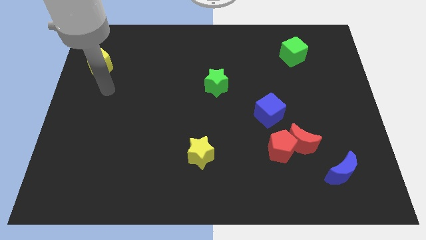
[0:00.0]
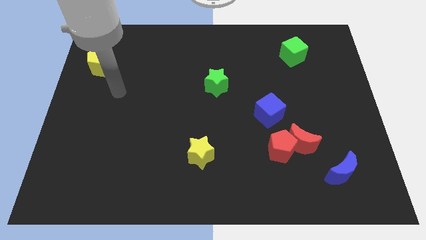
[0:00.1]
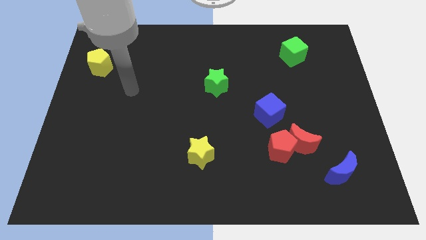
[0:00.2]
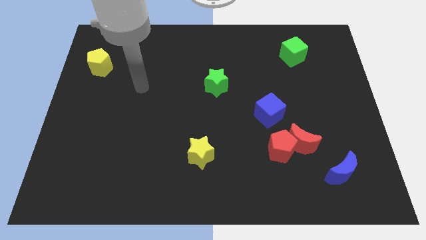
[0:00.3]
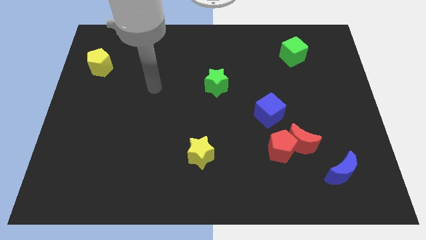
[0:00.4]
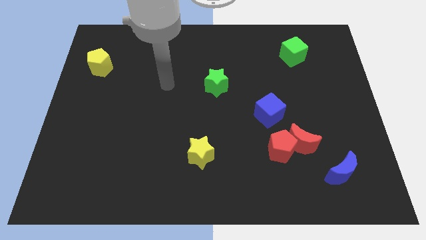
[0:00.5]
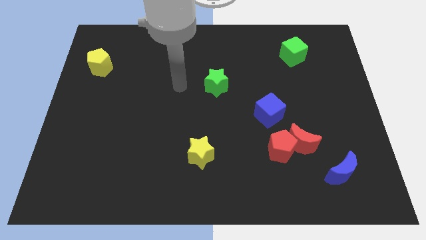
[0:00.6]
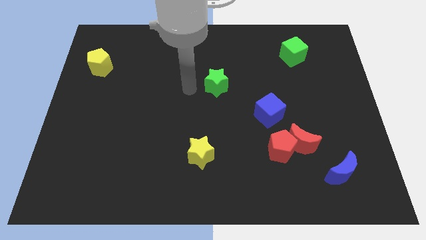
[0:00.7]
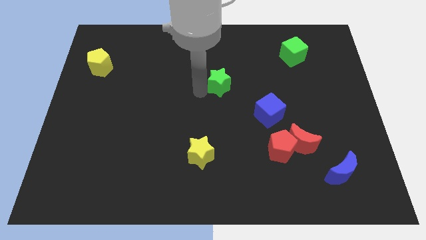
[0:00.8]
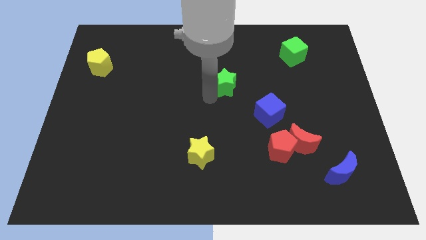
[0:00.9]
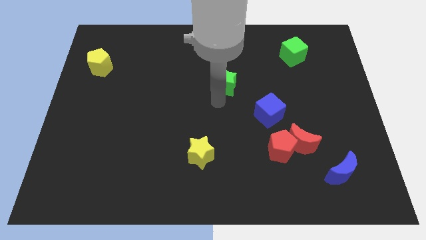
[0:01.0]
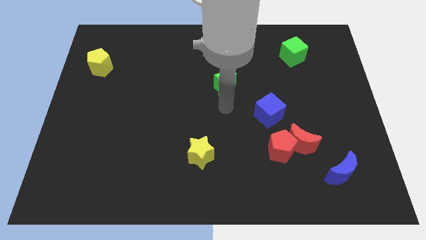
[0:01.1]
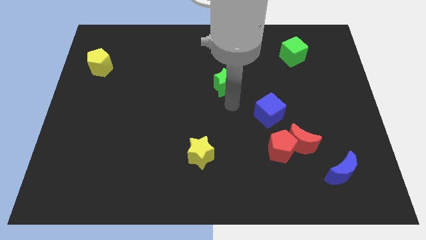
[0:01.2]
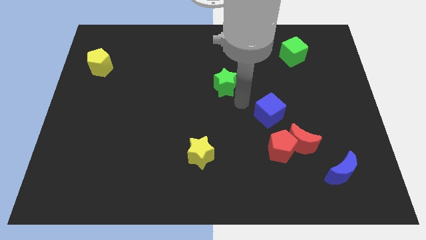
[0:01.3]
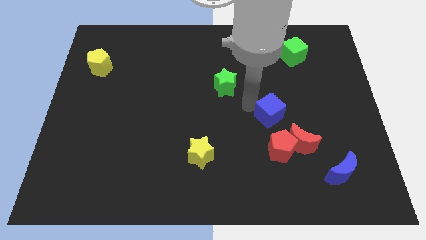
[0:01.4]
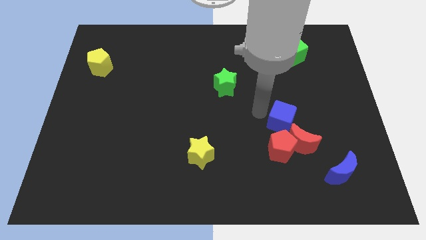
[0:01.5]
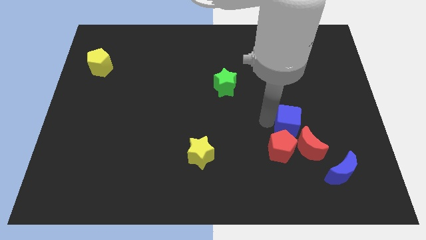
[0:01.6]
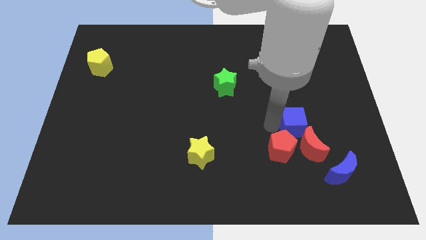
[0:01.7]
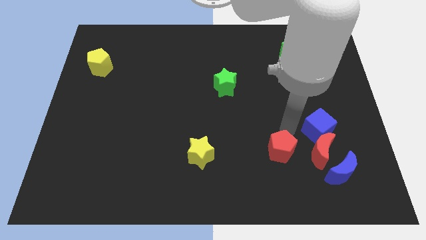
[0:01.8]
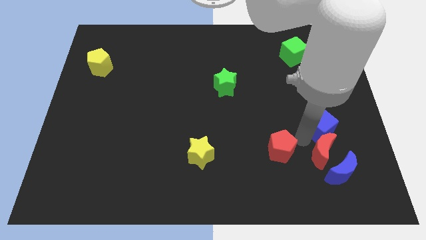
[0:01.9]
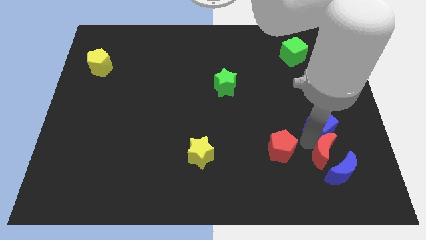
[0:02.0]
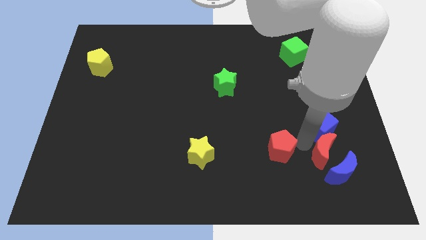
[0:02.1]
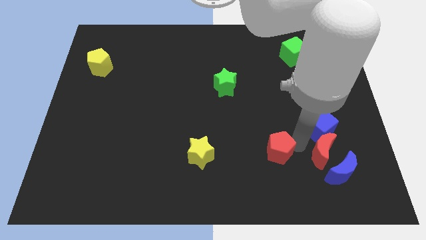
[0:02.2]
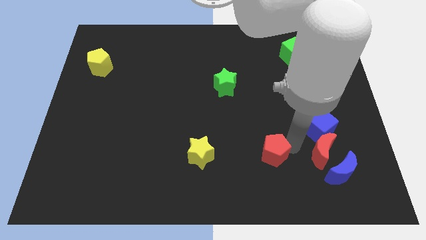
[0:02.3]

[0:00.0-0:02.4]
move the red pentagon away from the red moon and blue cube

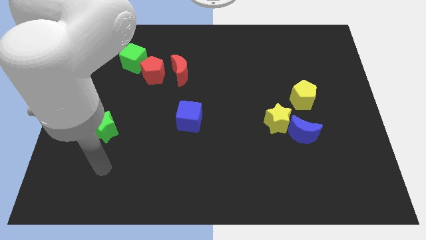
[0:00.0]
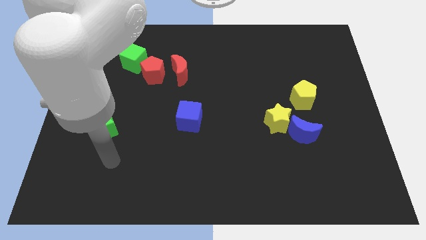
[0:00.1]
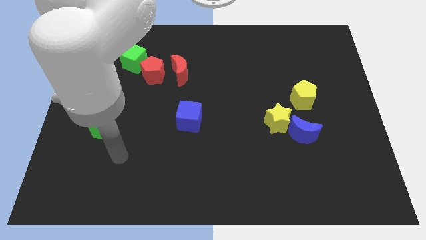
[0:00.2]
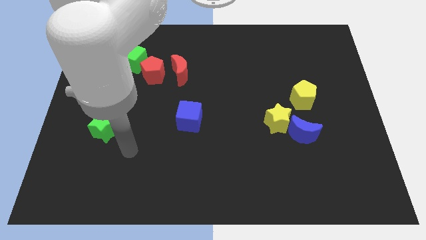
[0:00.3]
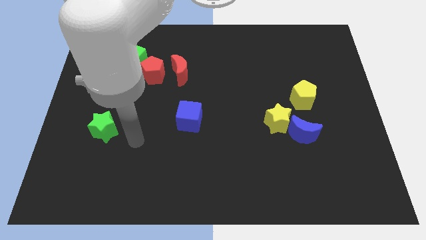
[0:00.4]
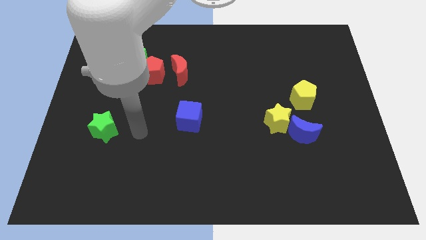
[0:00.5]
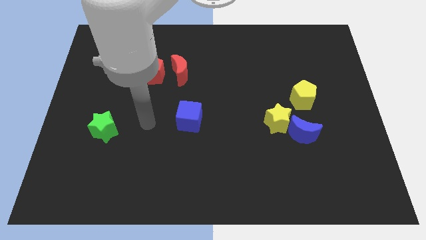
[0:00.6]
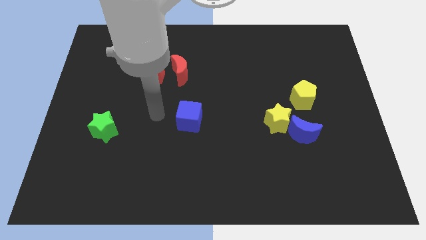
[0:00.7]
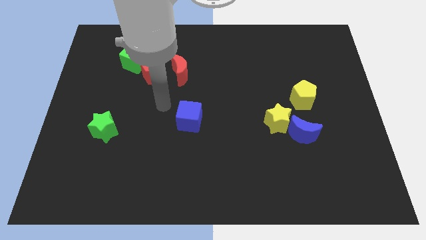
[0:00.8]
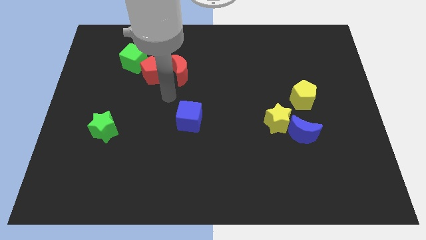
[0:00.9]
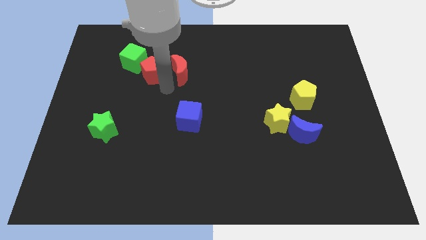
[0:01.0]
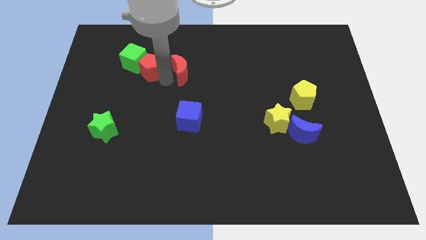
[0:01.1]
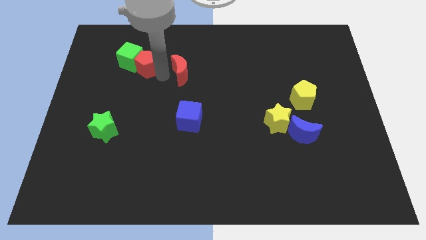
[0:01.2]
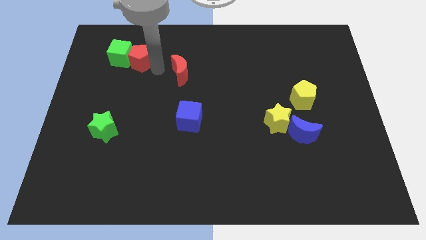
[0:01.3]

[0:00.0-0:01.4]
move the red moon away from the red pentagon

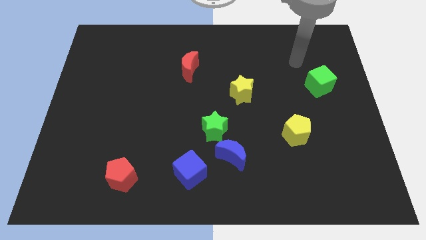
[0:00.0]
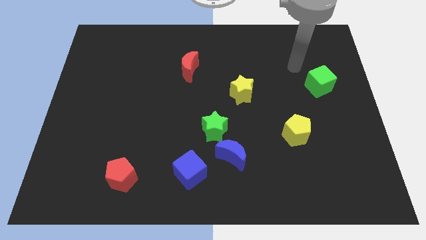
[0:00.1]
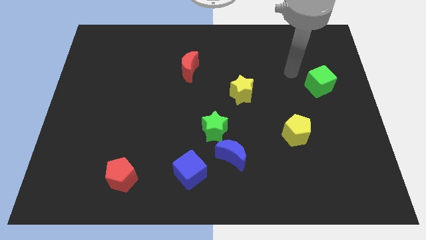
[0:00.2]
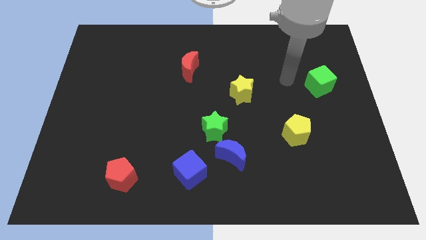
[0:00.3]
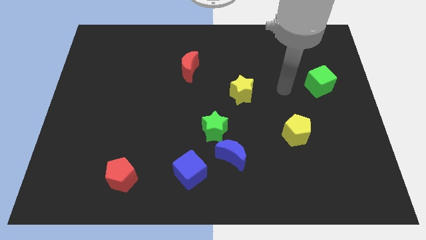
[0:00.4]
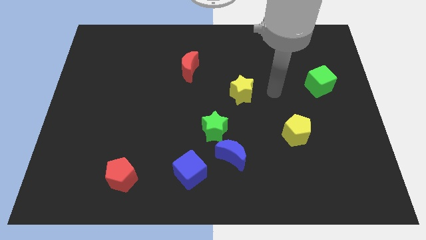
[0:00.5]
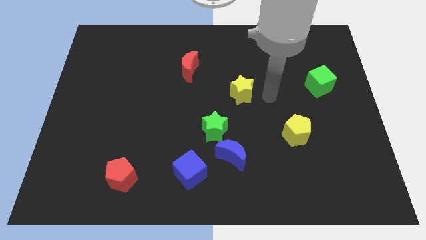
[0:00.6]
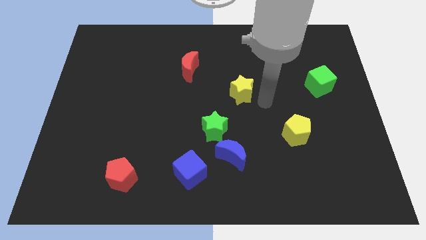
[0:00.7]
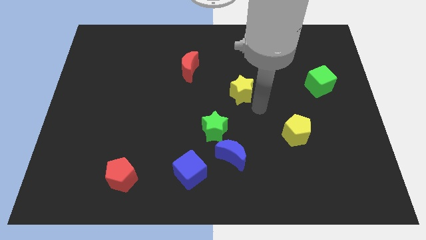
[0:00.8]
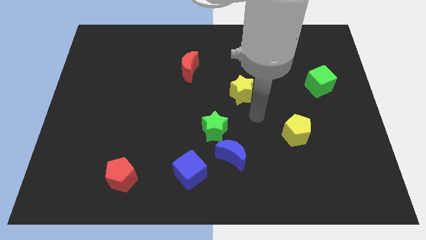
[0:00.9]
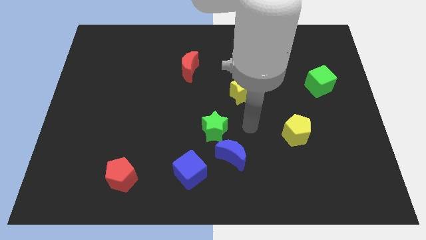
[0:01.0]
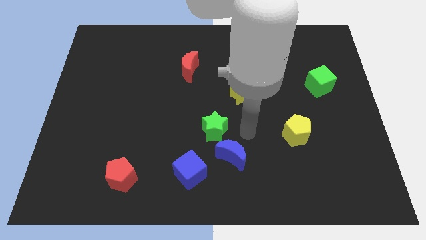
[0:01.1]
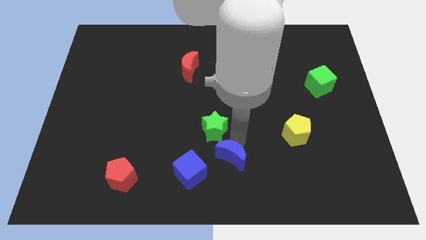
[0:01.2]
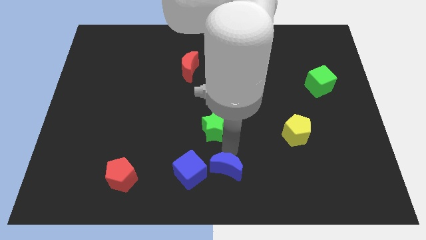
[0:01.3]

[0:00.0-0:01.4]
pull the green star apart from the blue moon

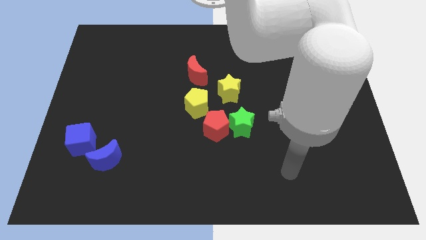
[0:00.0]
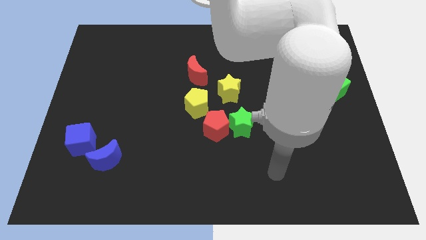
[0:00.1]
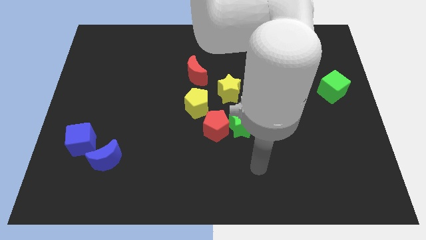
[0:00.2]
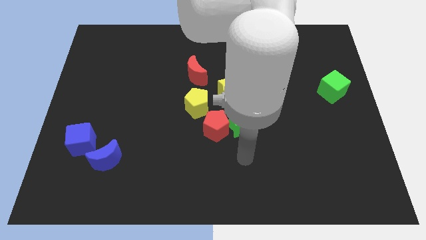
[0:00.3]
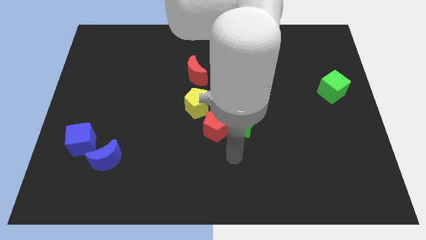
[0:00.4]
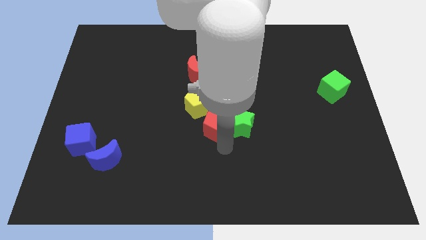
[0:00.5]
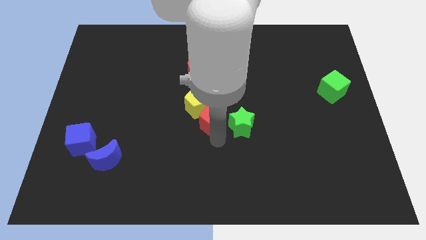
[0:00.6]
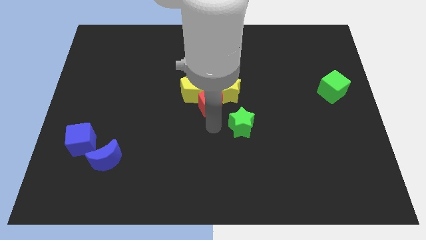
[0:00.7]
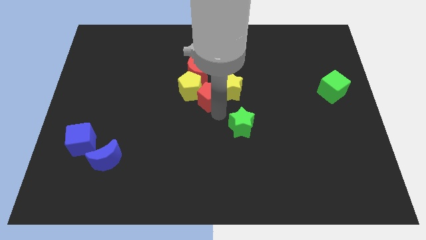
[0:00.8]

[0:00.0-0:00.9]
pull the green star apart from the red pentagon

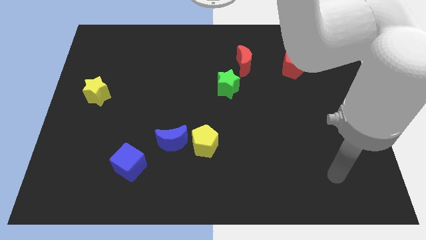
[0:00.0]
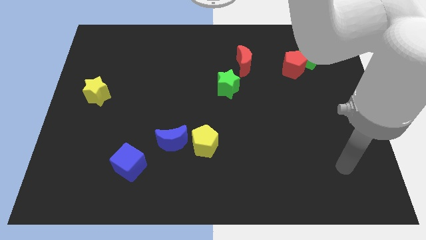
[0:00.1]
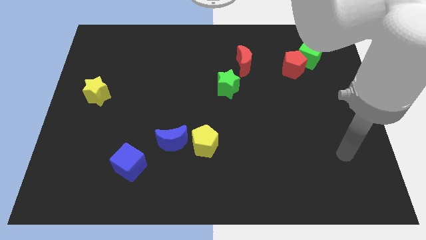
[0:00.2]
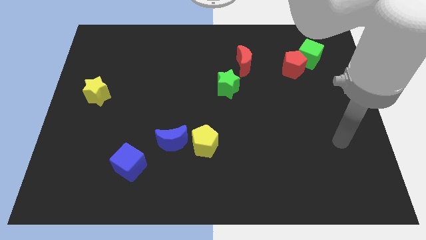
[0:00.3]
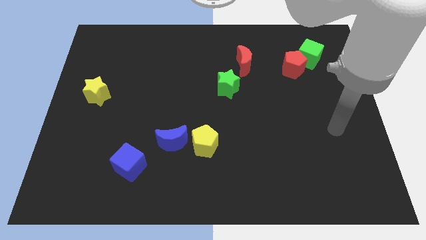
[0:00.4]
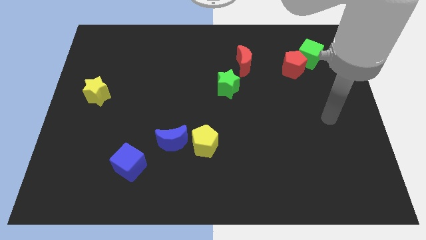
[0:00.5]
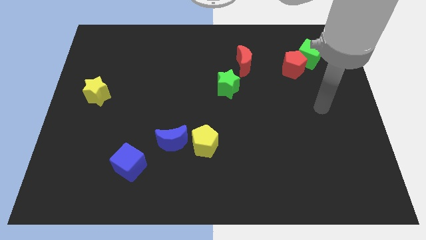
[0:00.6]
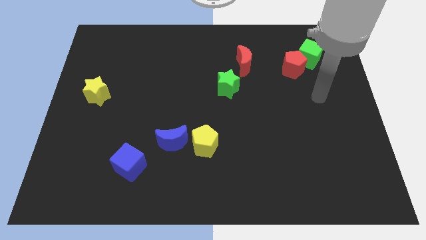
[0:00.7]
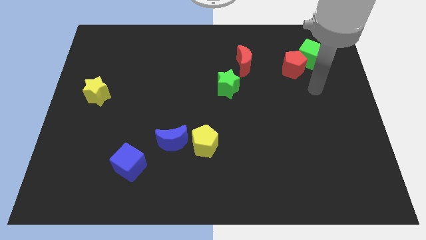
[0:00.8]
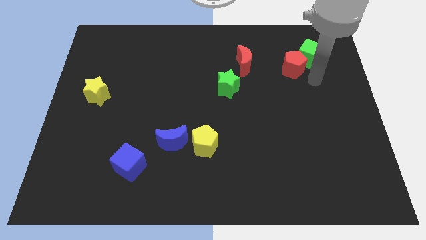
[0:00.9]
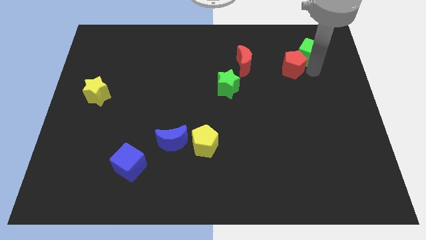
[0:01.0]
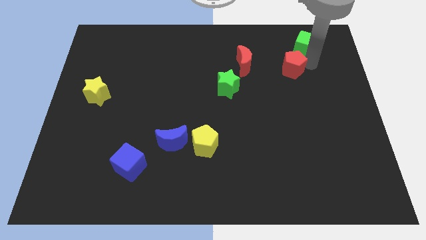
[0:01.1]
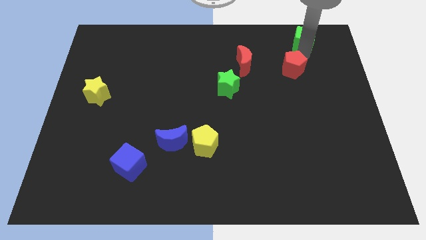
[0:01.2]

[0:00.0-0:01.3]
move the red pentagon away from the green cube

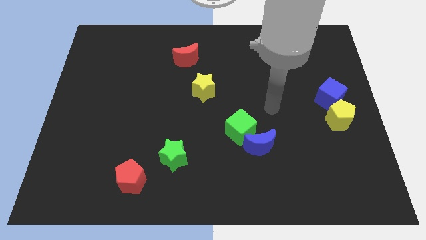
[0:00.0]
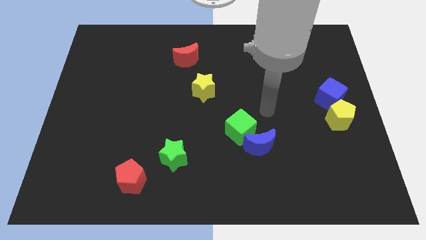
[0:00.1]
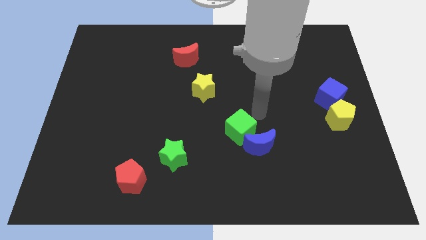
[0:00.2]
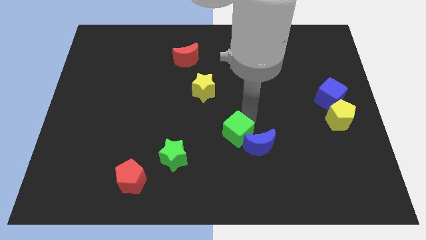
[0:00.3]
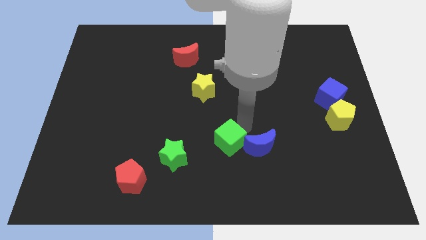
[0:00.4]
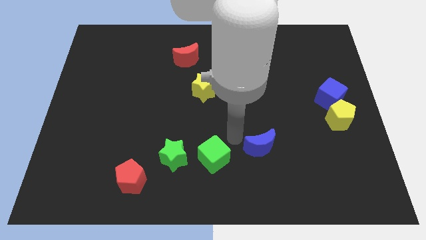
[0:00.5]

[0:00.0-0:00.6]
move the blue moon away from the green cube

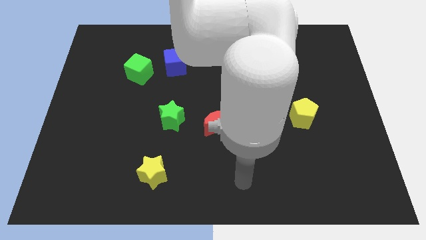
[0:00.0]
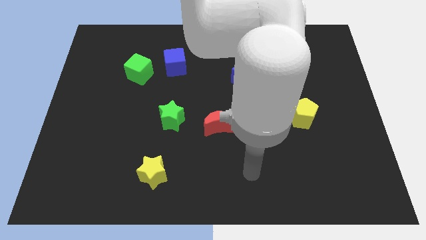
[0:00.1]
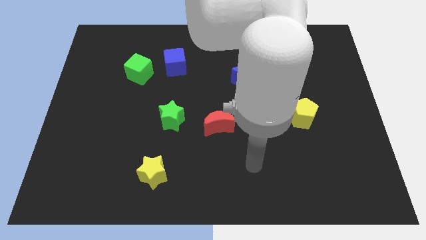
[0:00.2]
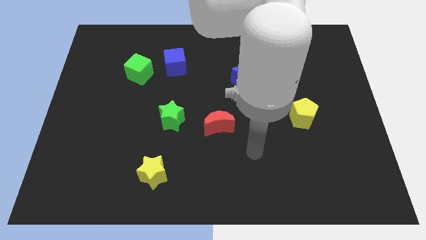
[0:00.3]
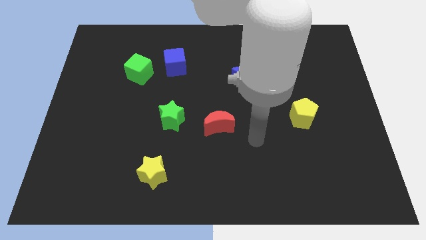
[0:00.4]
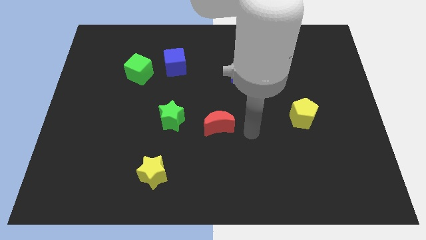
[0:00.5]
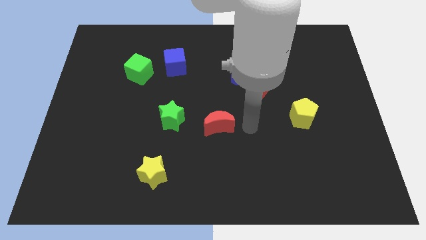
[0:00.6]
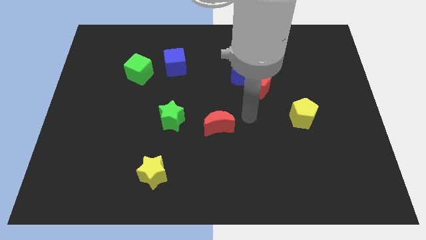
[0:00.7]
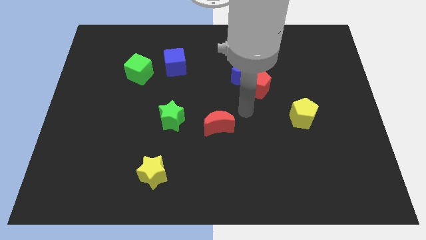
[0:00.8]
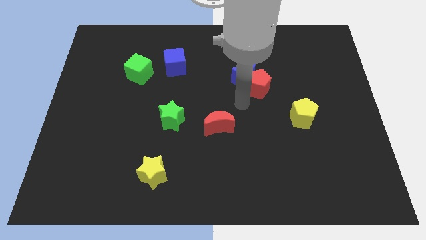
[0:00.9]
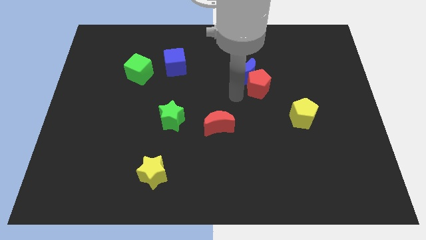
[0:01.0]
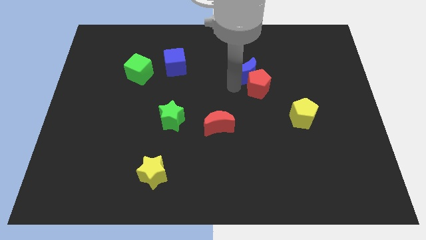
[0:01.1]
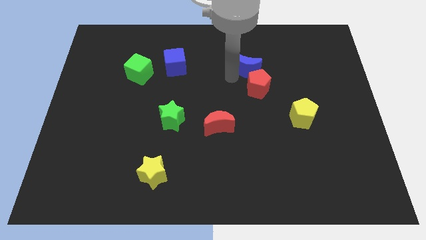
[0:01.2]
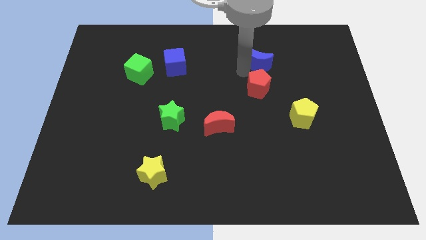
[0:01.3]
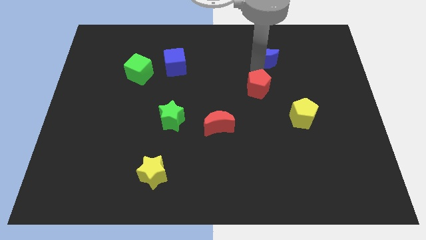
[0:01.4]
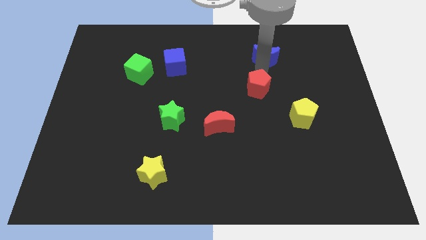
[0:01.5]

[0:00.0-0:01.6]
pull the red pentagon apart from the blue moon
